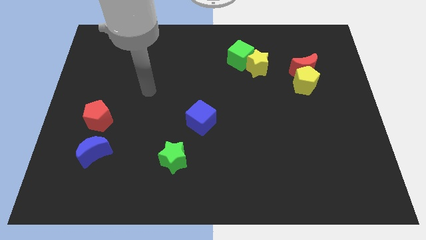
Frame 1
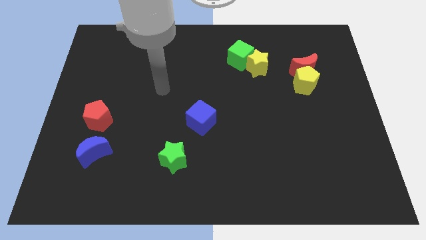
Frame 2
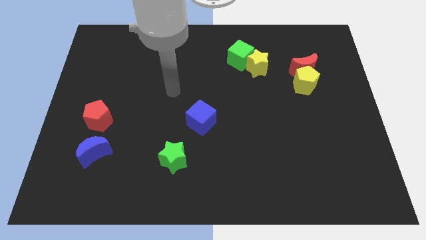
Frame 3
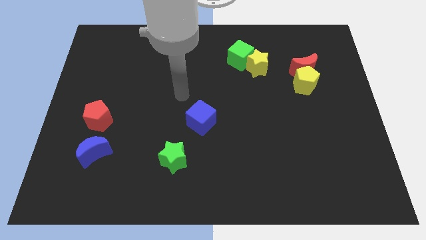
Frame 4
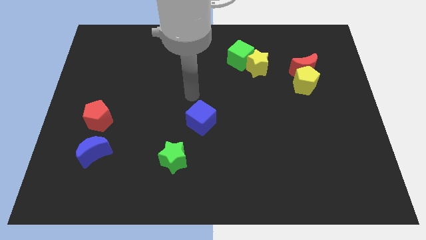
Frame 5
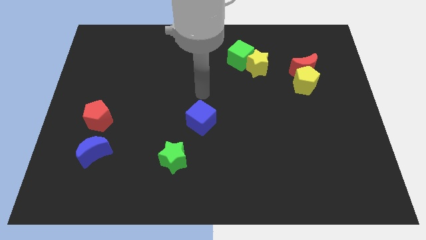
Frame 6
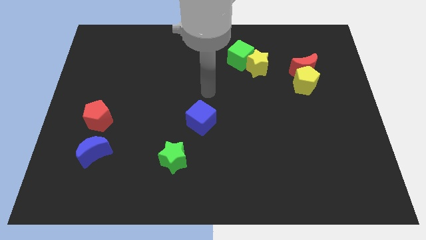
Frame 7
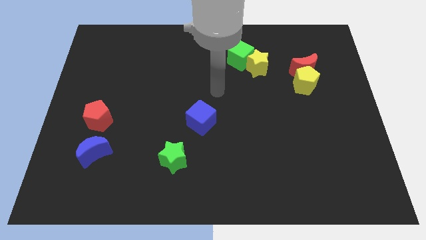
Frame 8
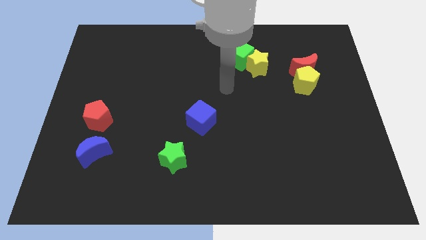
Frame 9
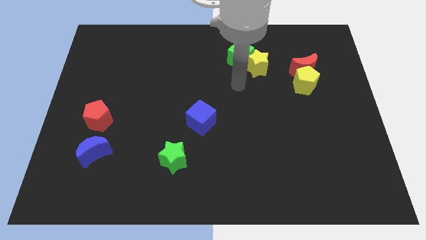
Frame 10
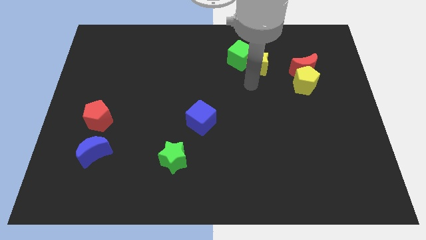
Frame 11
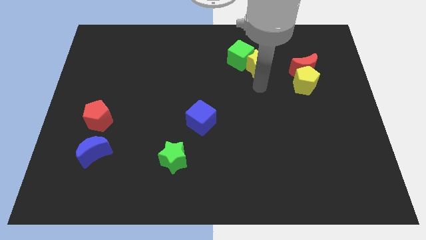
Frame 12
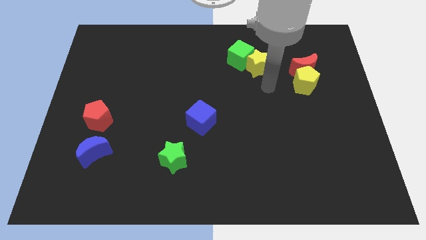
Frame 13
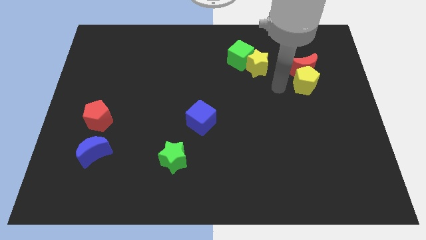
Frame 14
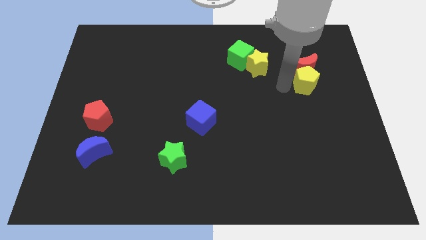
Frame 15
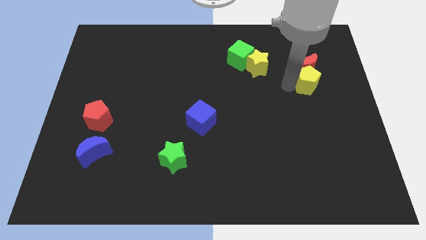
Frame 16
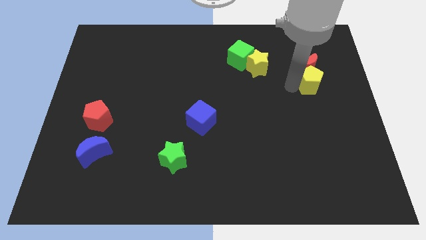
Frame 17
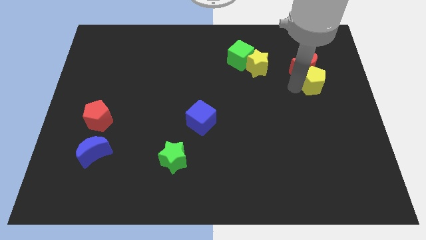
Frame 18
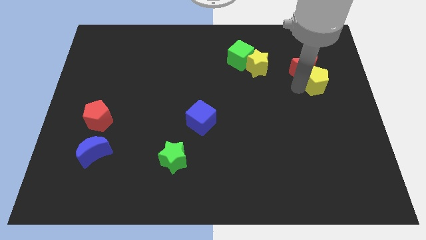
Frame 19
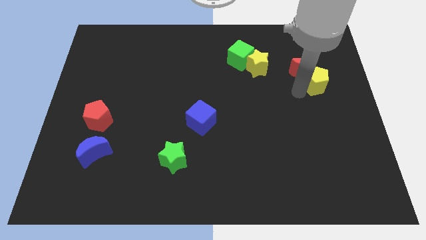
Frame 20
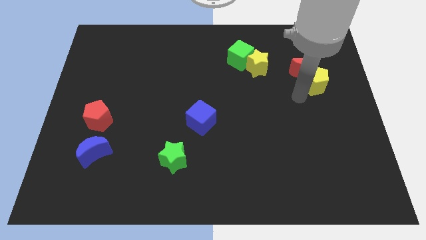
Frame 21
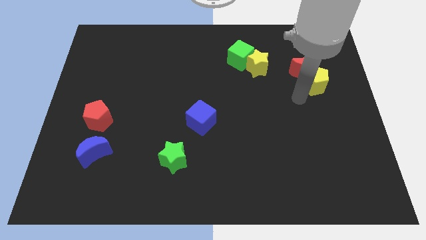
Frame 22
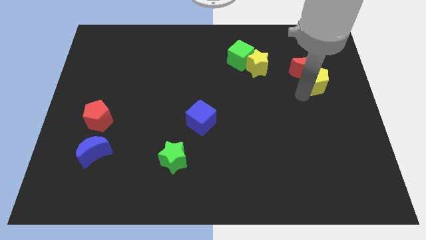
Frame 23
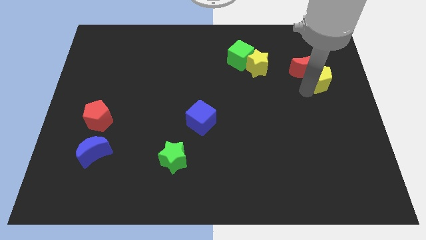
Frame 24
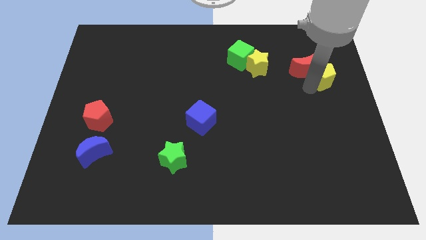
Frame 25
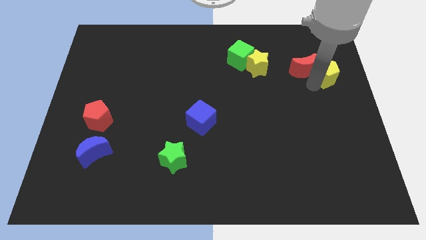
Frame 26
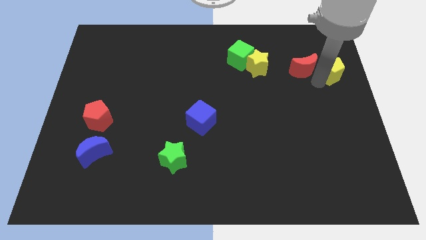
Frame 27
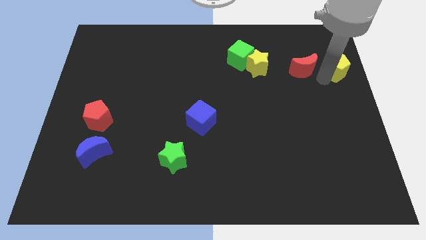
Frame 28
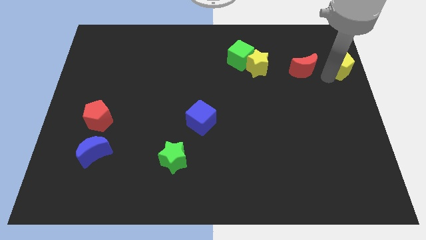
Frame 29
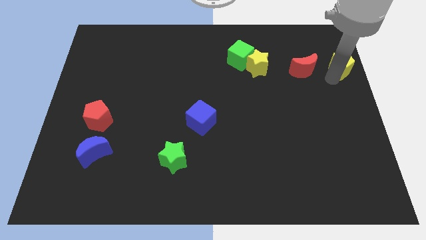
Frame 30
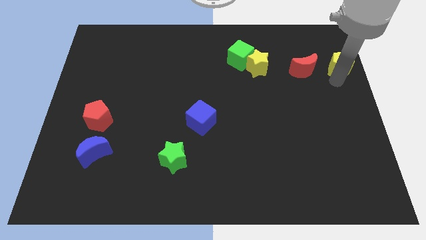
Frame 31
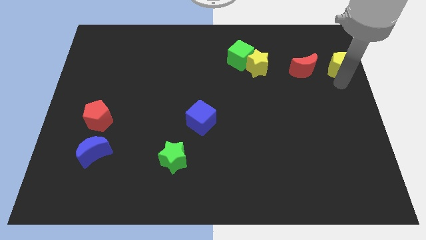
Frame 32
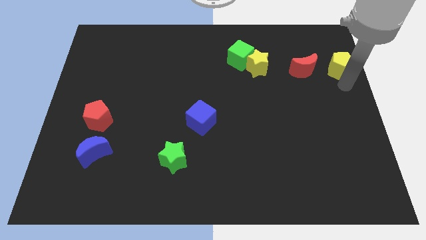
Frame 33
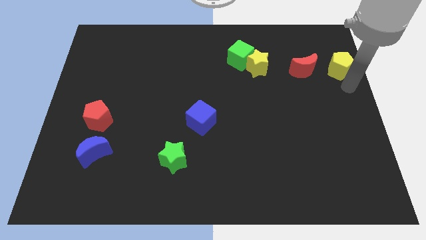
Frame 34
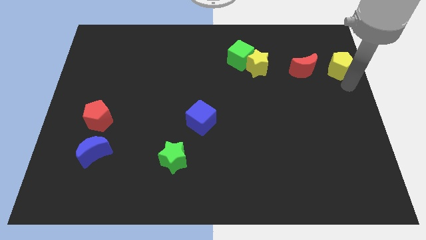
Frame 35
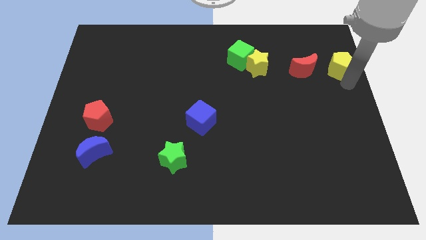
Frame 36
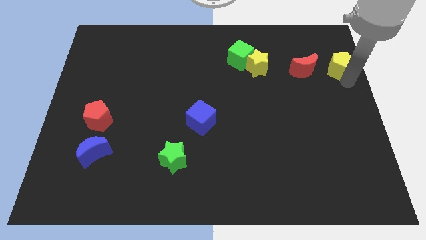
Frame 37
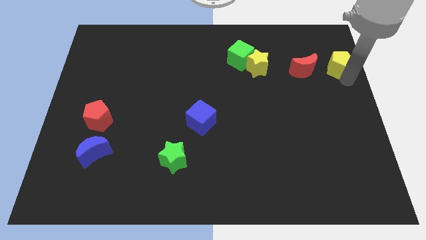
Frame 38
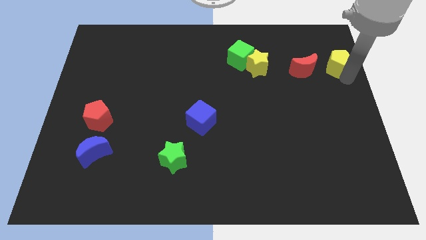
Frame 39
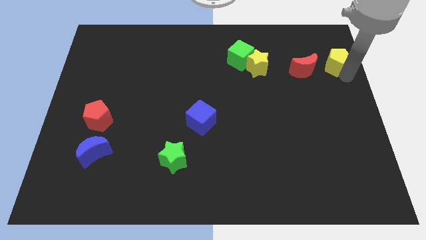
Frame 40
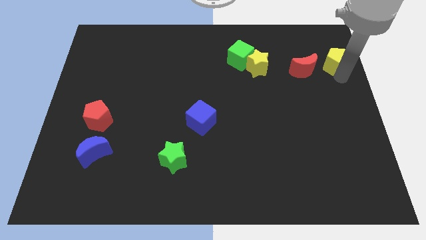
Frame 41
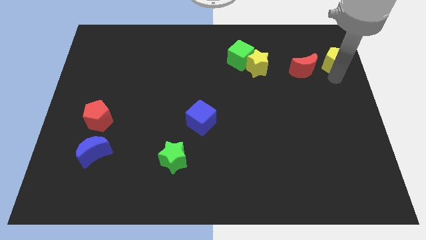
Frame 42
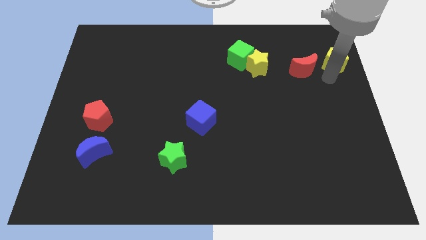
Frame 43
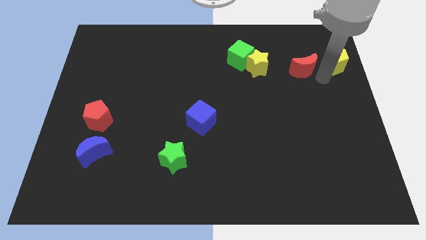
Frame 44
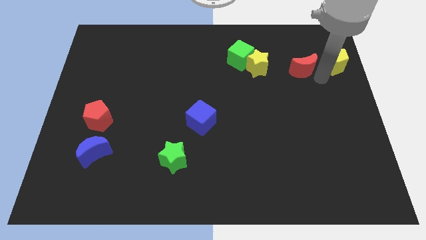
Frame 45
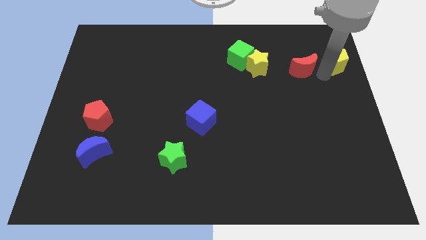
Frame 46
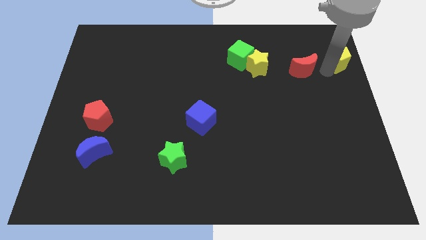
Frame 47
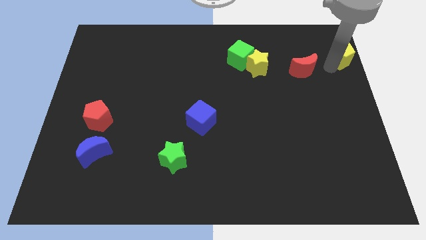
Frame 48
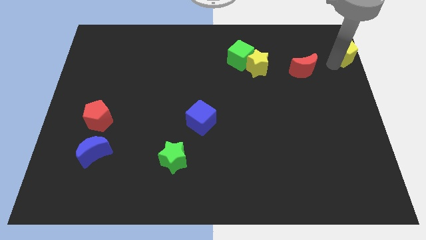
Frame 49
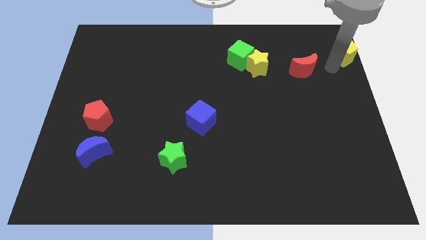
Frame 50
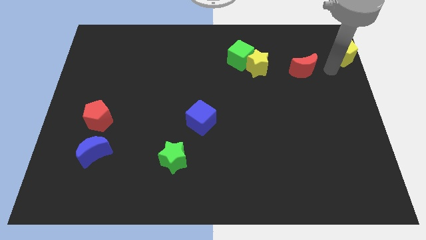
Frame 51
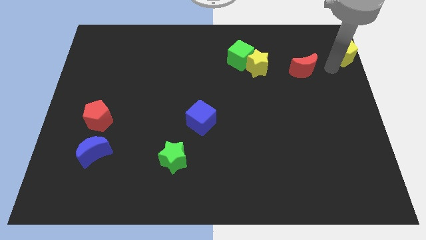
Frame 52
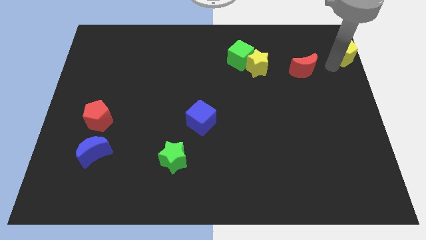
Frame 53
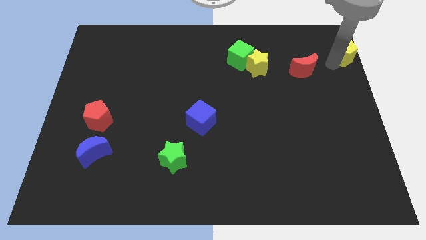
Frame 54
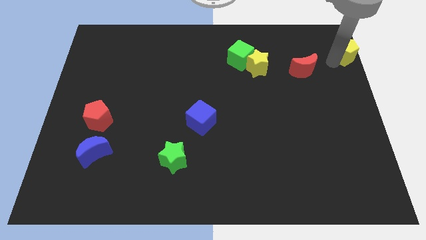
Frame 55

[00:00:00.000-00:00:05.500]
put the yellow pentagon to the upper right corner

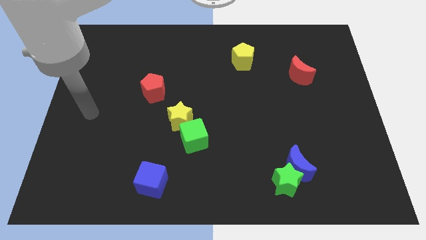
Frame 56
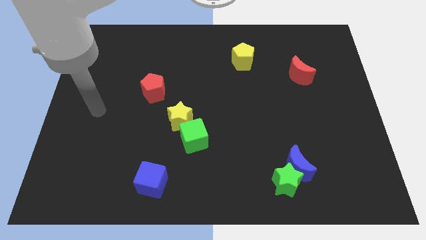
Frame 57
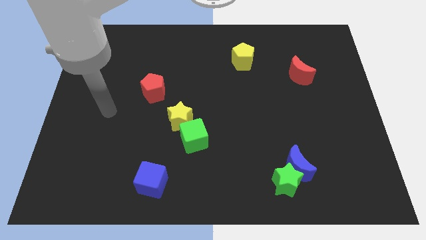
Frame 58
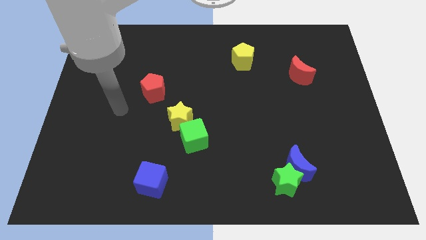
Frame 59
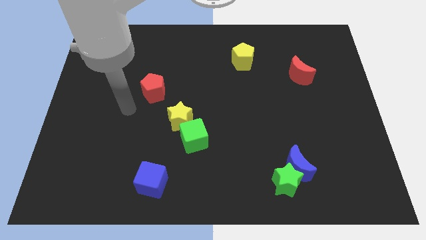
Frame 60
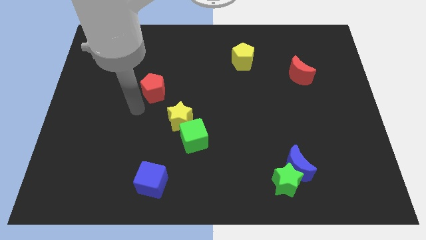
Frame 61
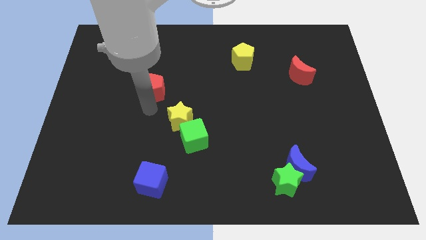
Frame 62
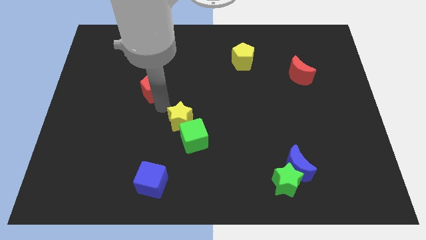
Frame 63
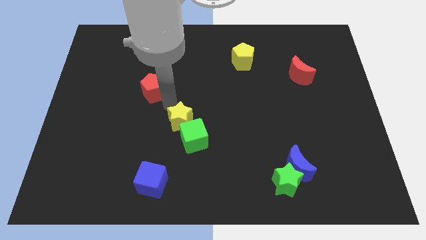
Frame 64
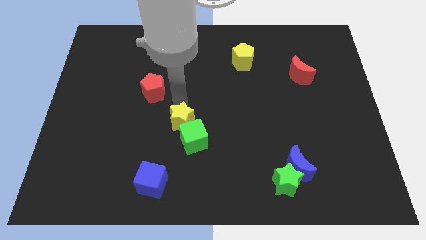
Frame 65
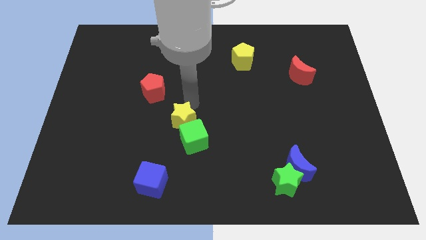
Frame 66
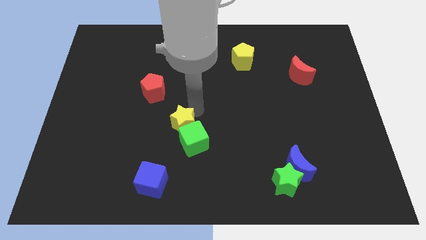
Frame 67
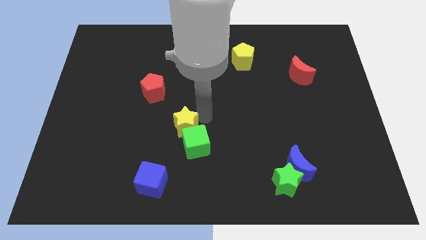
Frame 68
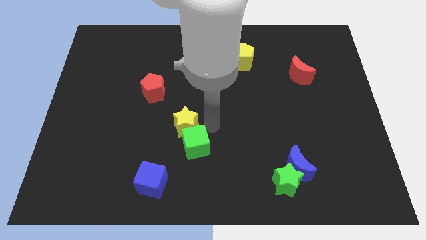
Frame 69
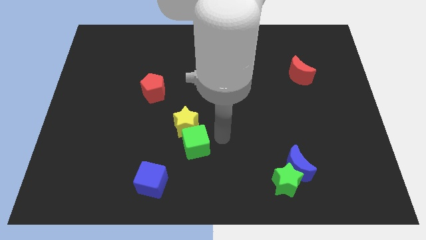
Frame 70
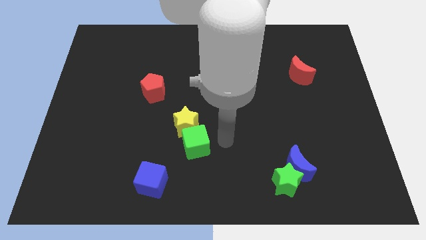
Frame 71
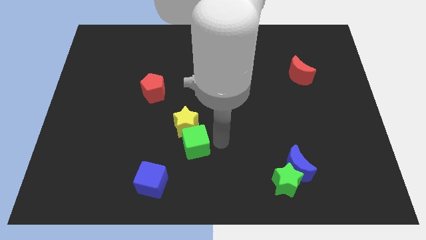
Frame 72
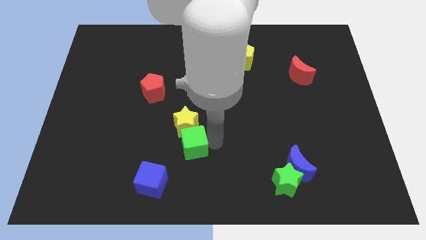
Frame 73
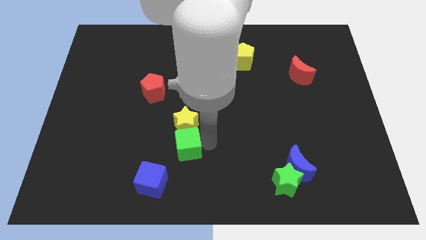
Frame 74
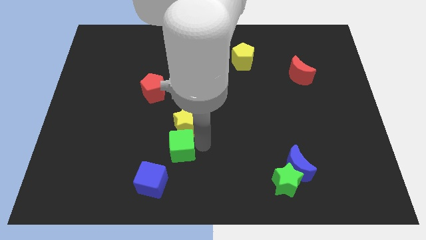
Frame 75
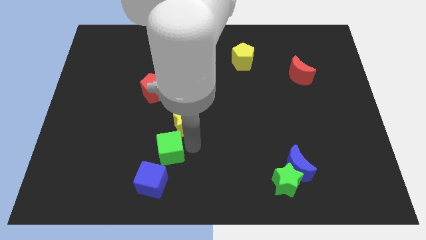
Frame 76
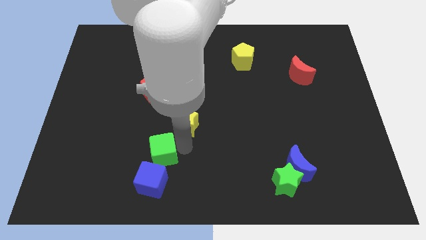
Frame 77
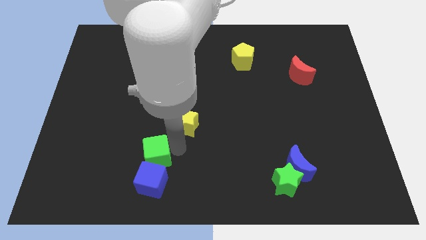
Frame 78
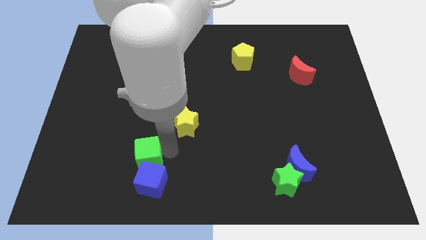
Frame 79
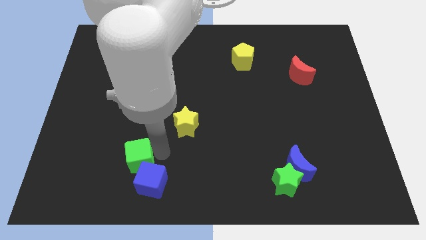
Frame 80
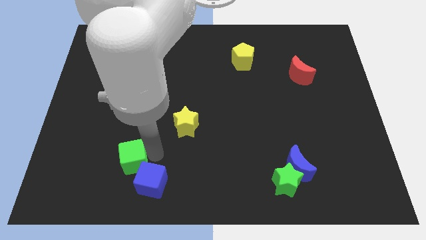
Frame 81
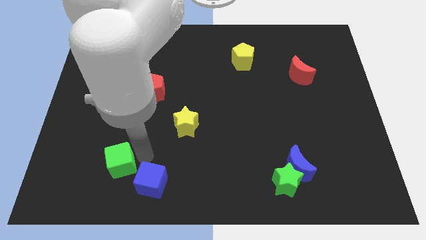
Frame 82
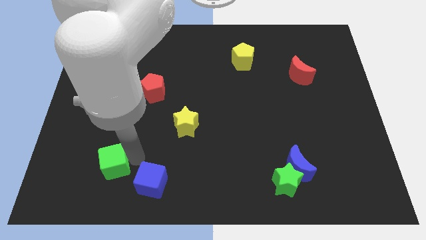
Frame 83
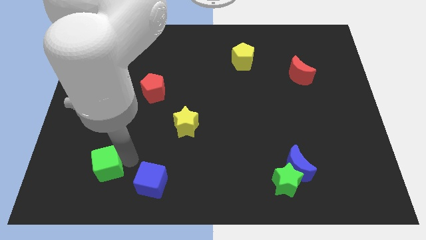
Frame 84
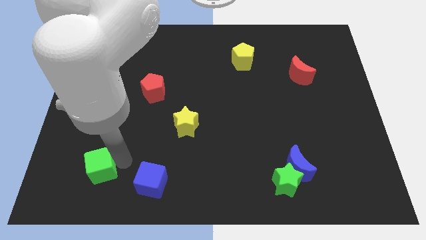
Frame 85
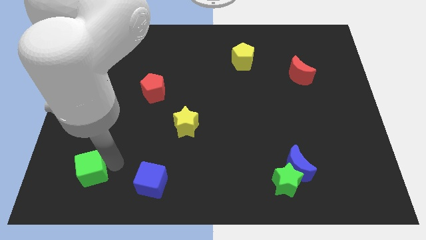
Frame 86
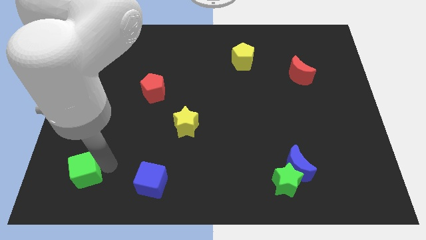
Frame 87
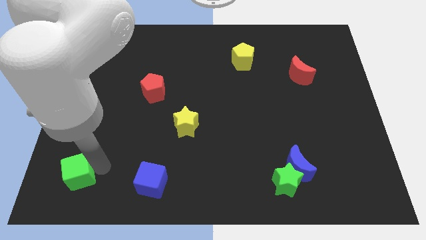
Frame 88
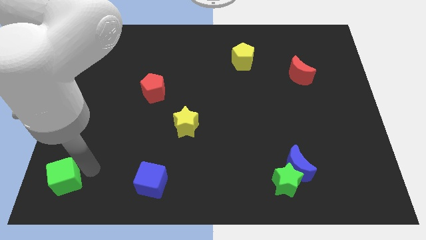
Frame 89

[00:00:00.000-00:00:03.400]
move the green cube to the bottom left
